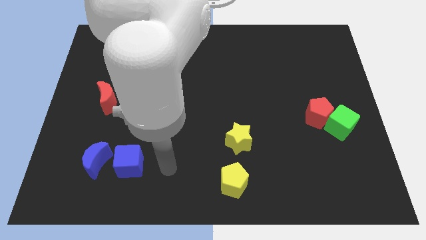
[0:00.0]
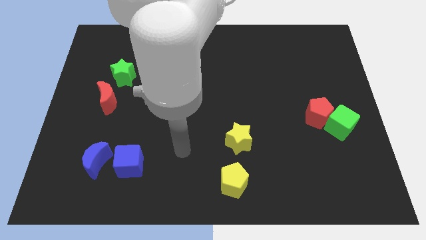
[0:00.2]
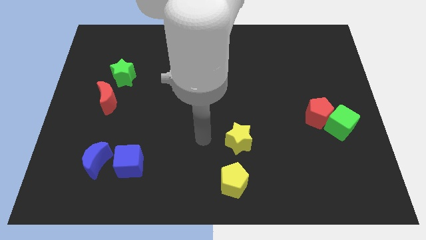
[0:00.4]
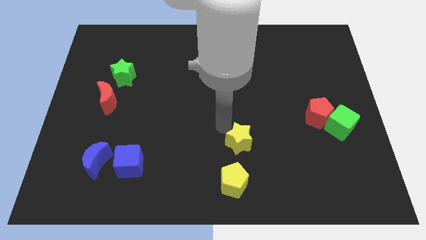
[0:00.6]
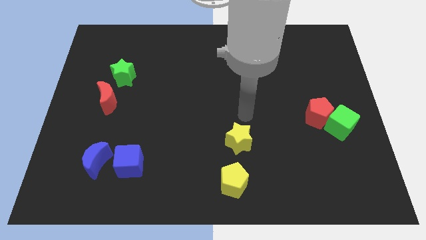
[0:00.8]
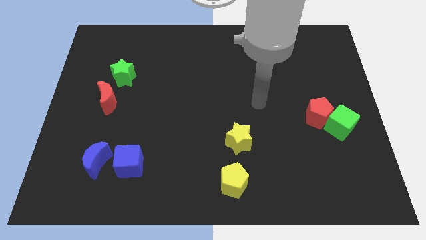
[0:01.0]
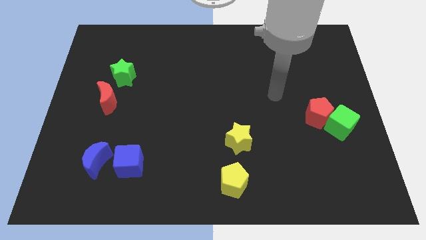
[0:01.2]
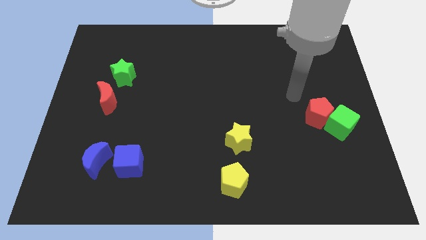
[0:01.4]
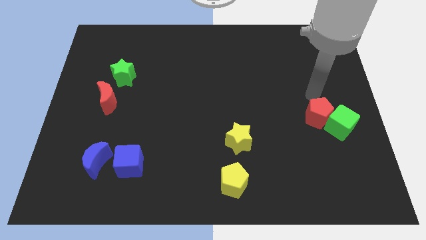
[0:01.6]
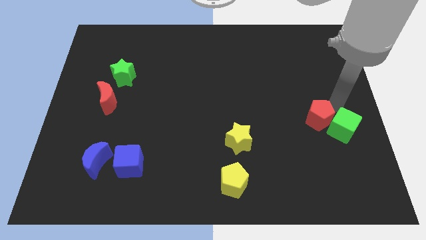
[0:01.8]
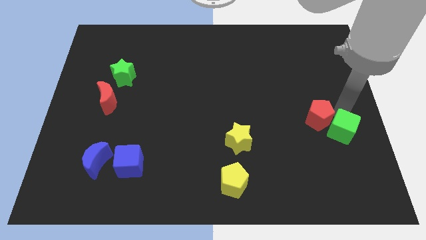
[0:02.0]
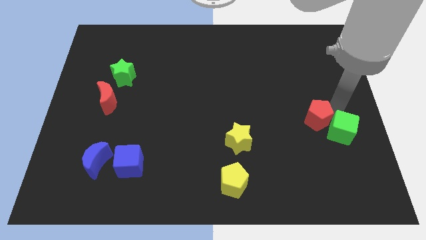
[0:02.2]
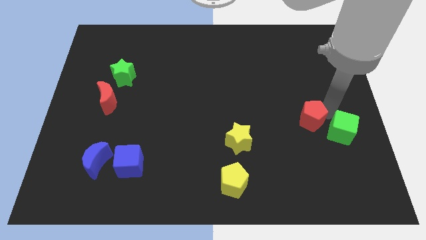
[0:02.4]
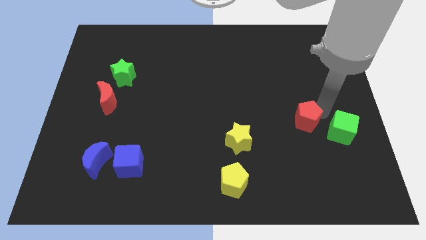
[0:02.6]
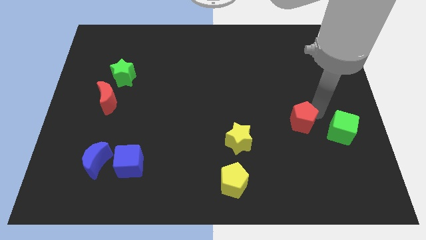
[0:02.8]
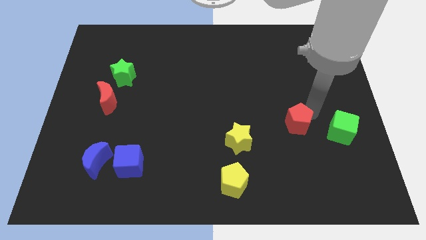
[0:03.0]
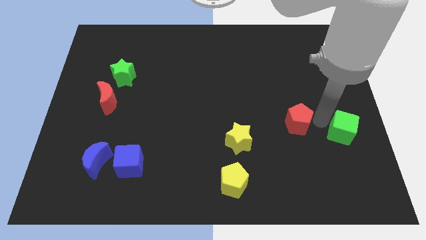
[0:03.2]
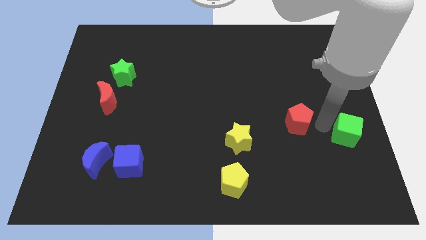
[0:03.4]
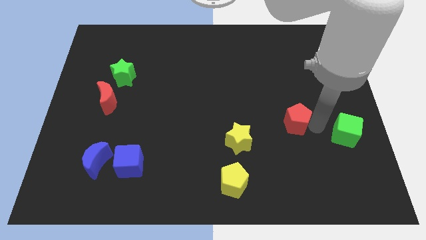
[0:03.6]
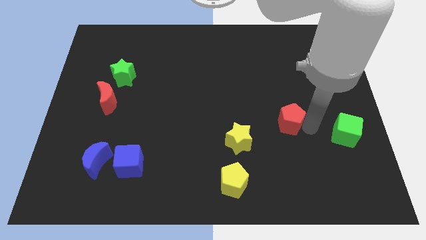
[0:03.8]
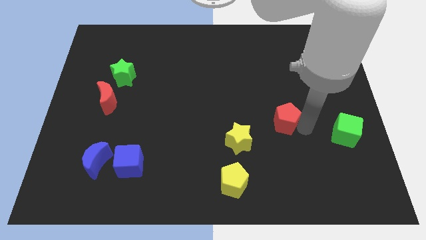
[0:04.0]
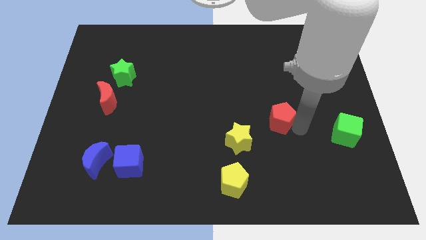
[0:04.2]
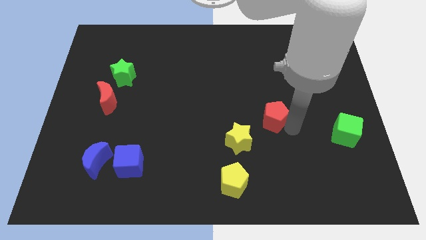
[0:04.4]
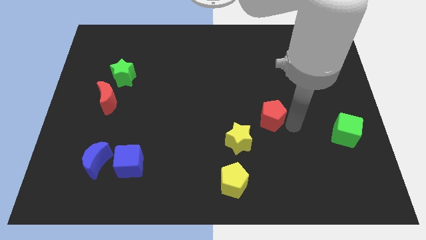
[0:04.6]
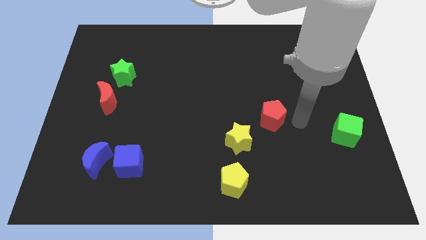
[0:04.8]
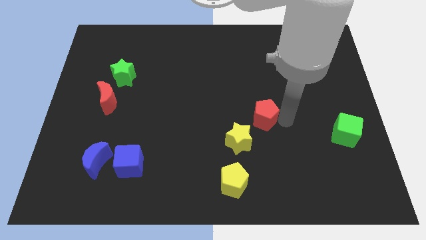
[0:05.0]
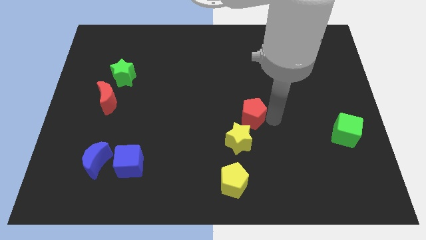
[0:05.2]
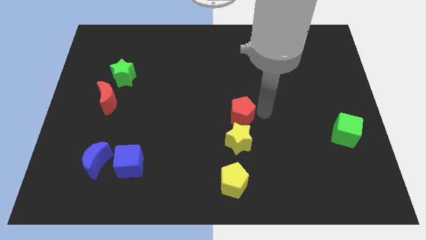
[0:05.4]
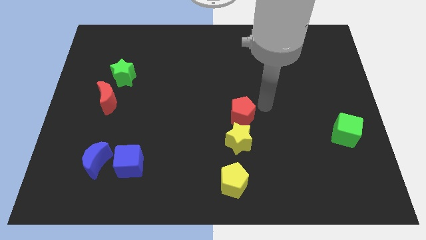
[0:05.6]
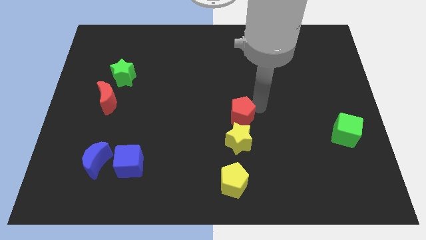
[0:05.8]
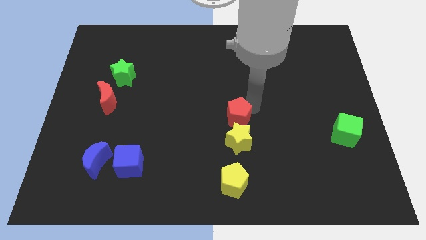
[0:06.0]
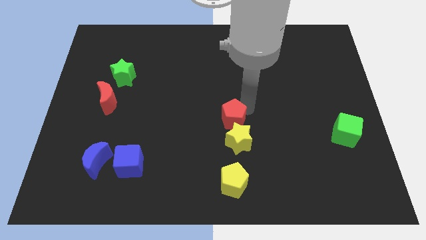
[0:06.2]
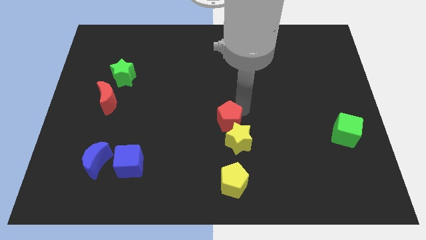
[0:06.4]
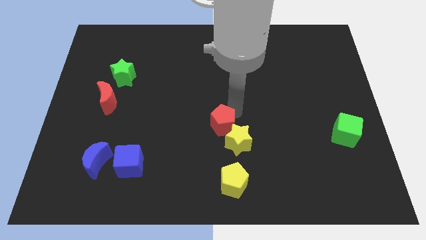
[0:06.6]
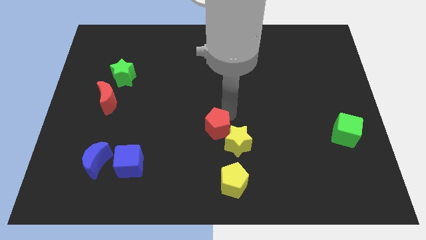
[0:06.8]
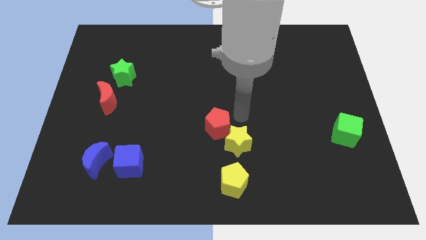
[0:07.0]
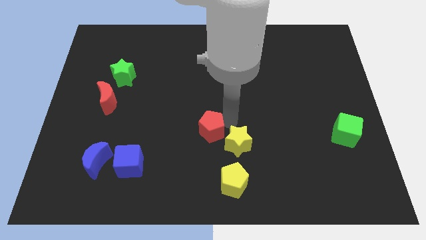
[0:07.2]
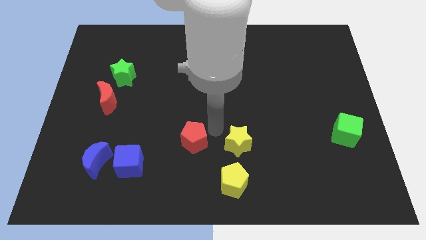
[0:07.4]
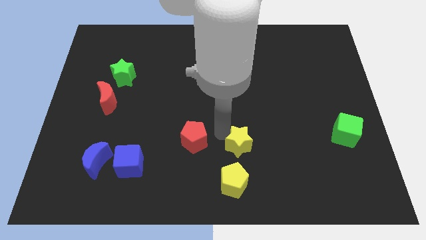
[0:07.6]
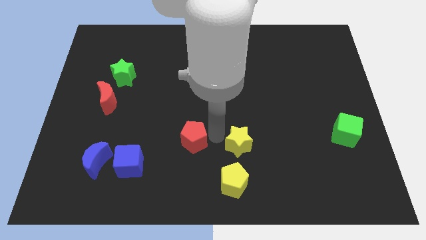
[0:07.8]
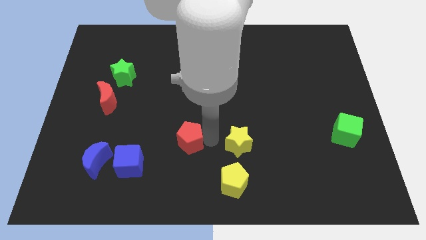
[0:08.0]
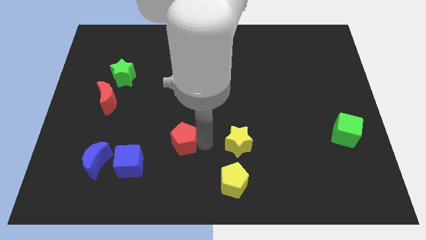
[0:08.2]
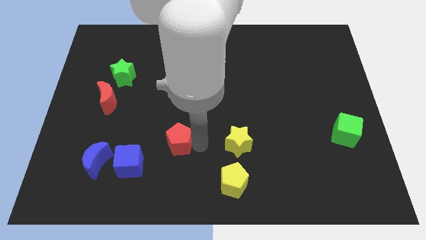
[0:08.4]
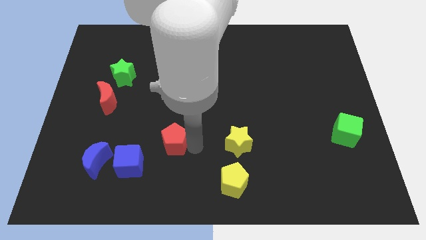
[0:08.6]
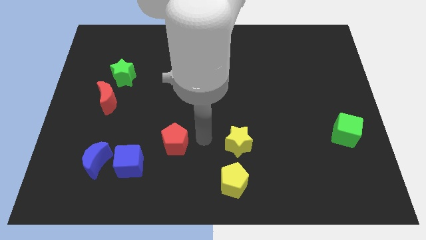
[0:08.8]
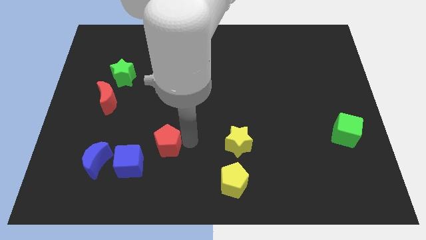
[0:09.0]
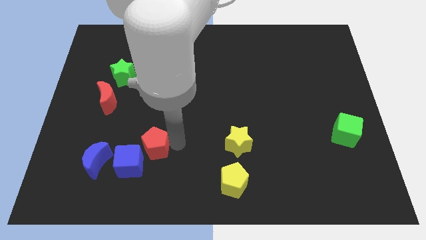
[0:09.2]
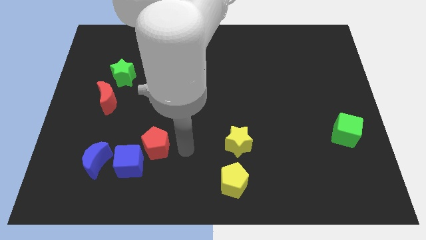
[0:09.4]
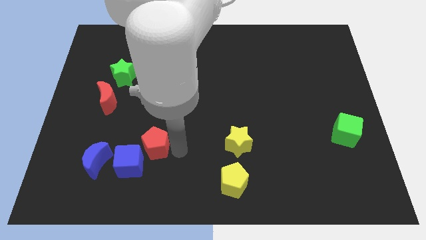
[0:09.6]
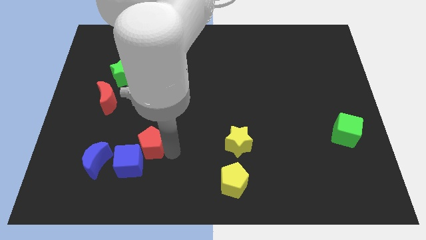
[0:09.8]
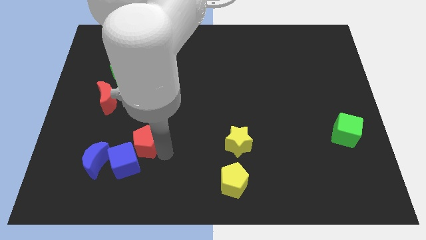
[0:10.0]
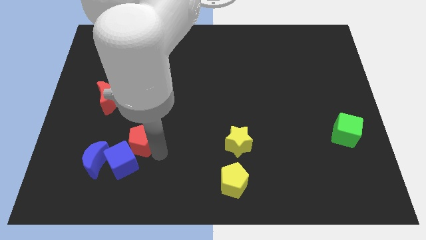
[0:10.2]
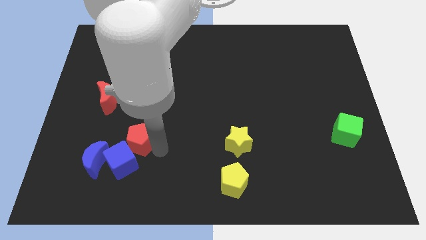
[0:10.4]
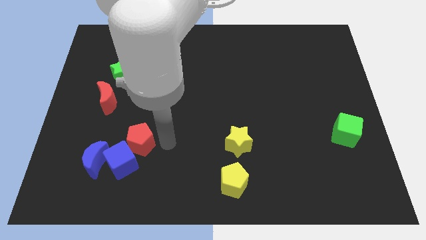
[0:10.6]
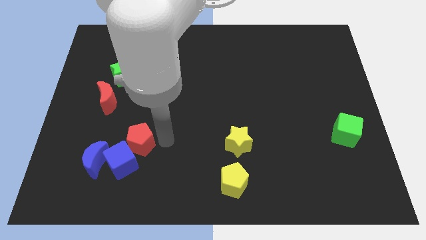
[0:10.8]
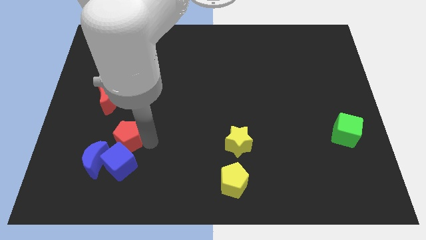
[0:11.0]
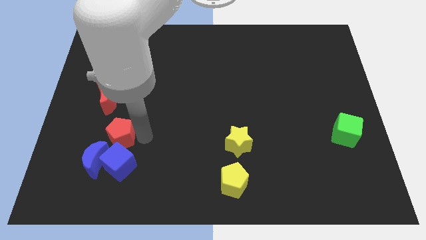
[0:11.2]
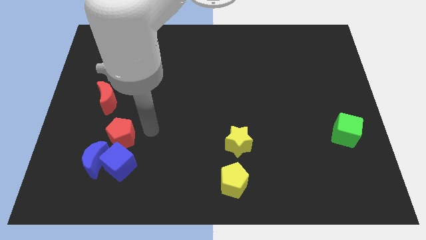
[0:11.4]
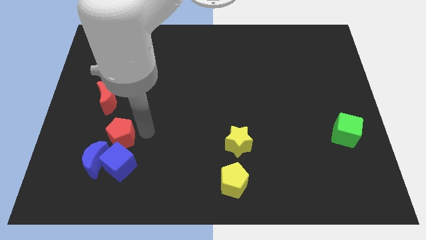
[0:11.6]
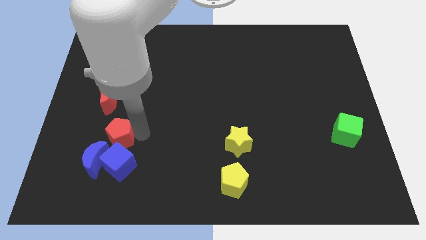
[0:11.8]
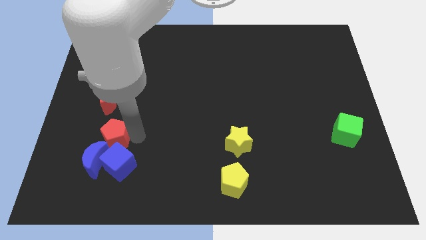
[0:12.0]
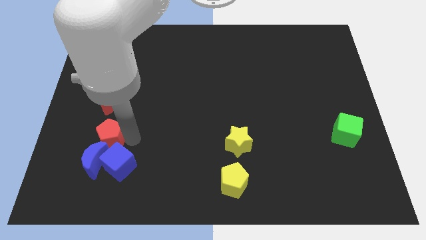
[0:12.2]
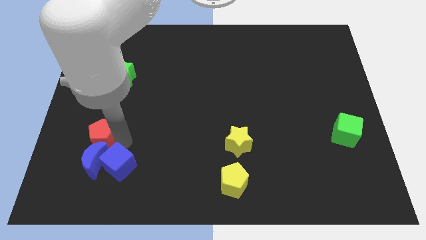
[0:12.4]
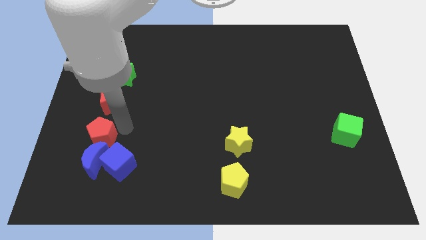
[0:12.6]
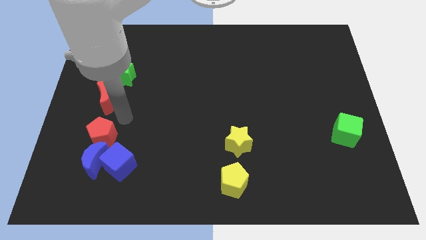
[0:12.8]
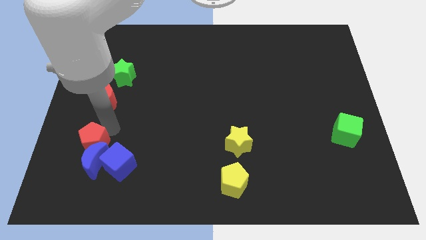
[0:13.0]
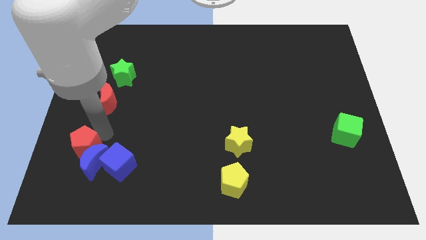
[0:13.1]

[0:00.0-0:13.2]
push the red pentagon left of the blue cube
